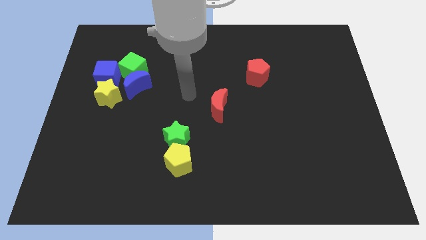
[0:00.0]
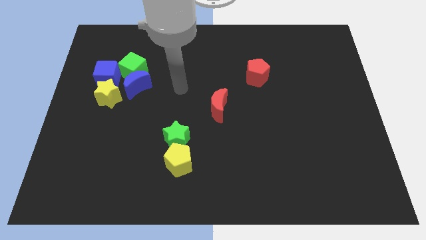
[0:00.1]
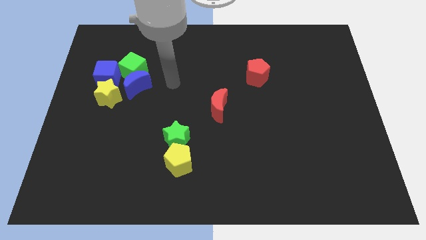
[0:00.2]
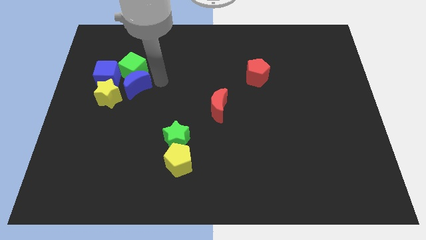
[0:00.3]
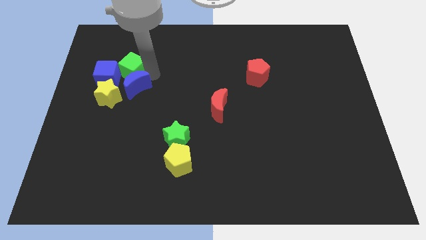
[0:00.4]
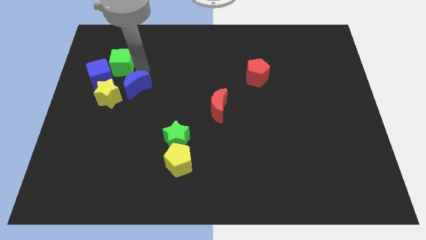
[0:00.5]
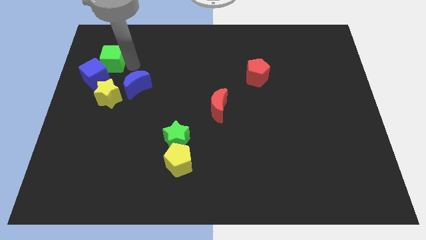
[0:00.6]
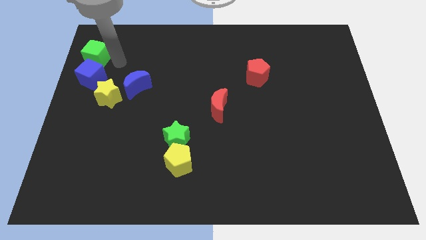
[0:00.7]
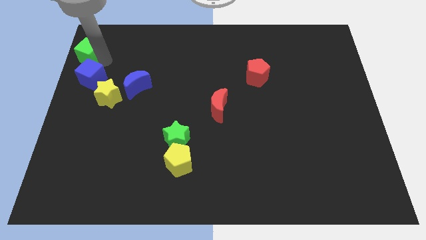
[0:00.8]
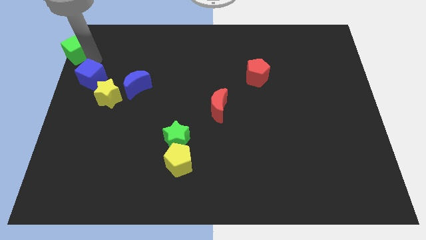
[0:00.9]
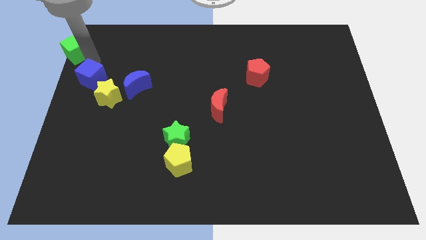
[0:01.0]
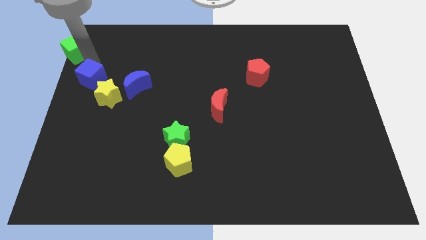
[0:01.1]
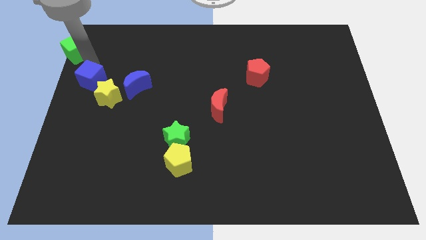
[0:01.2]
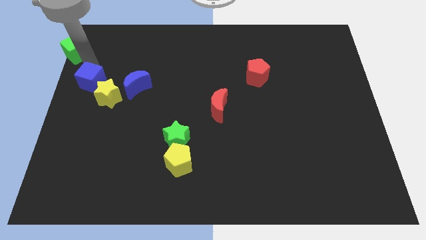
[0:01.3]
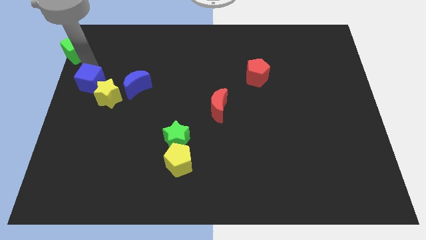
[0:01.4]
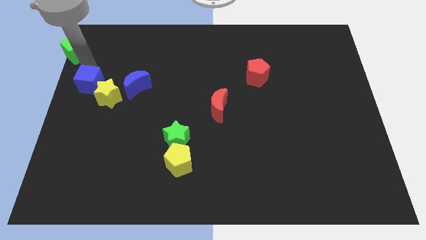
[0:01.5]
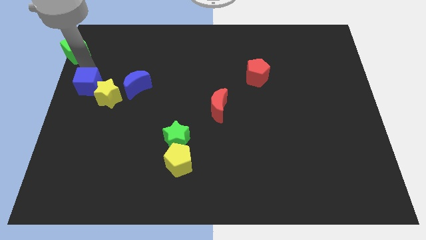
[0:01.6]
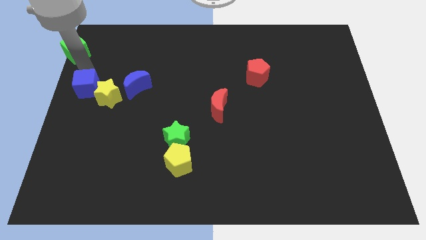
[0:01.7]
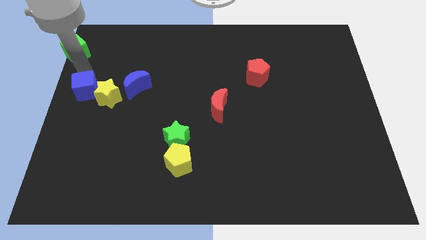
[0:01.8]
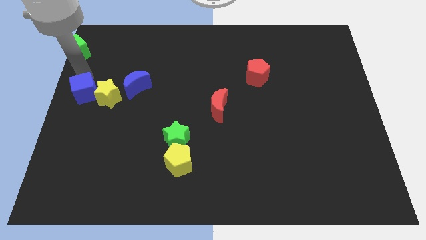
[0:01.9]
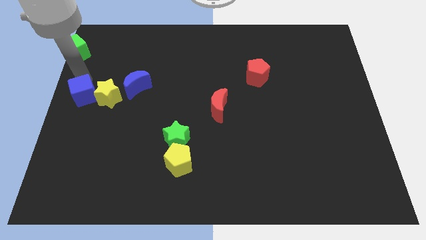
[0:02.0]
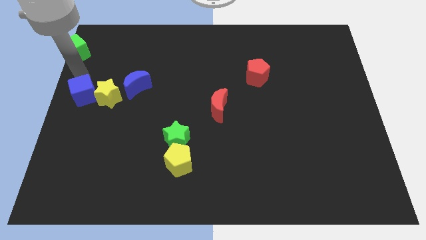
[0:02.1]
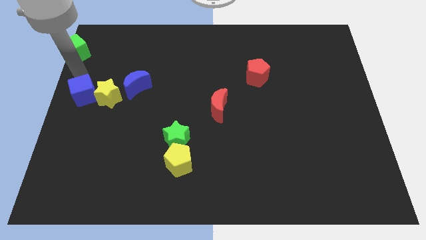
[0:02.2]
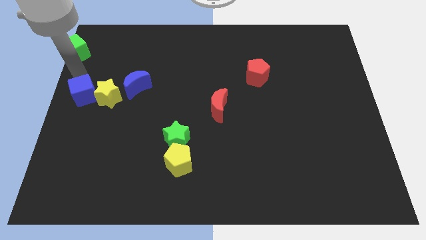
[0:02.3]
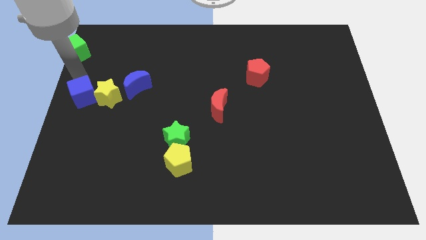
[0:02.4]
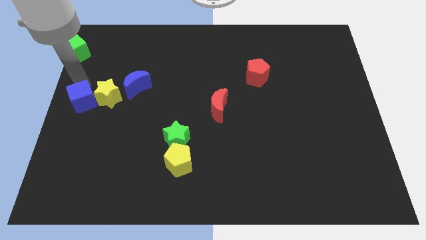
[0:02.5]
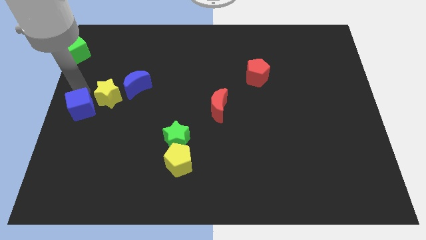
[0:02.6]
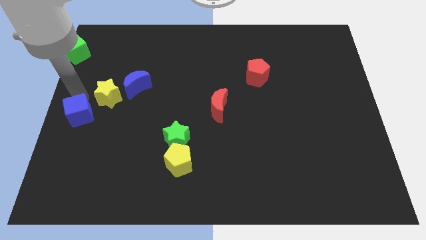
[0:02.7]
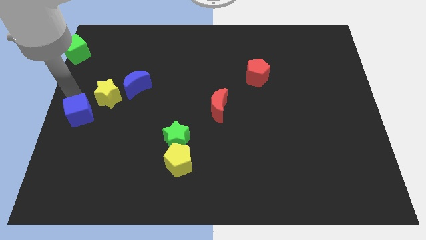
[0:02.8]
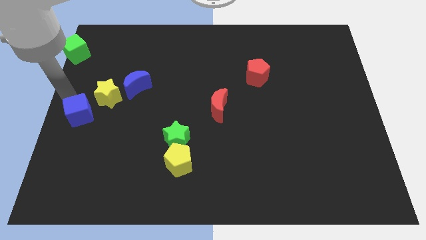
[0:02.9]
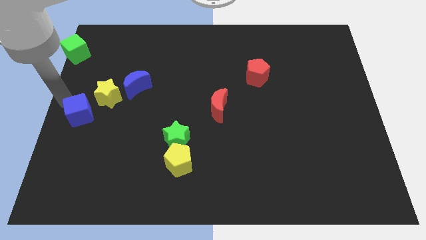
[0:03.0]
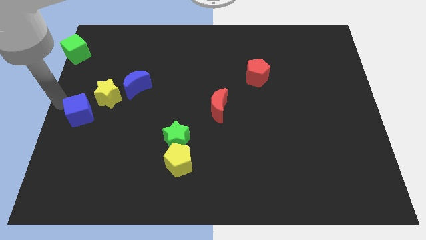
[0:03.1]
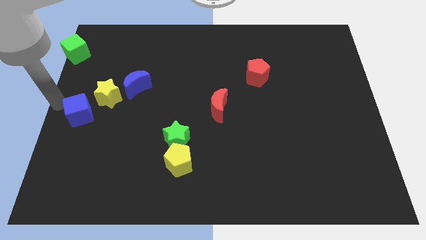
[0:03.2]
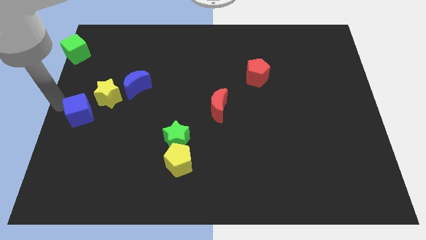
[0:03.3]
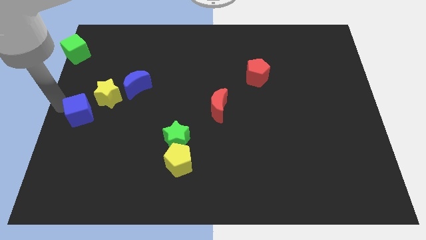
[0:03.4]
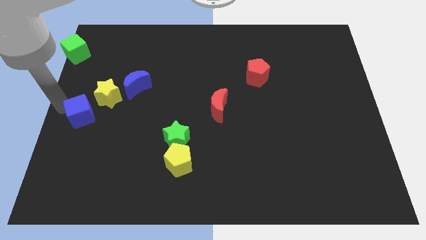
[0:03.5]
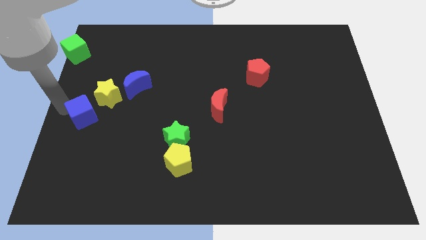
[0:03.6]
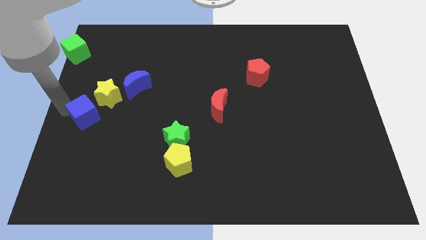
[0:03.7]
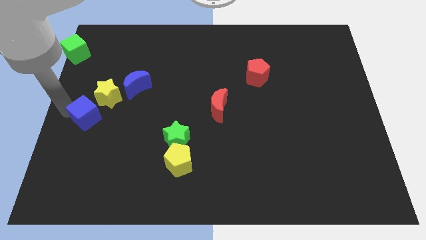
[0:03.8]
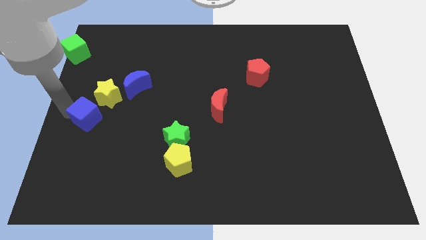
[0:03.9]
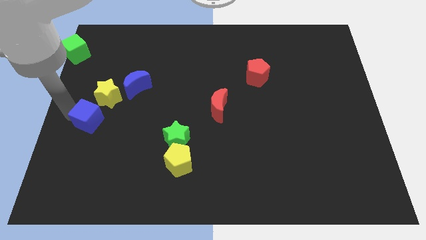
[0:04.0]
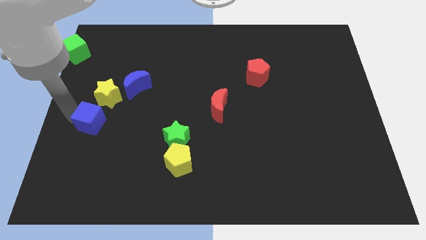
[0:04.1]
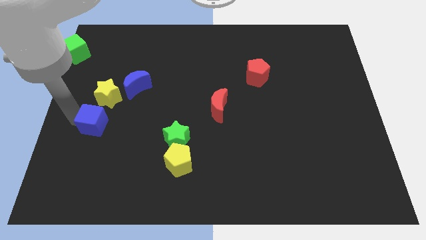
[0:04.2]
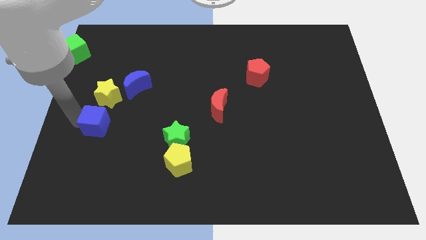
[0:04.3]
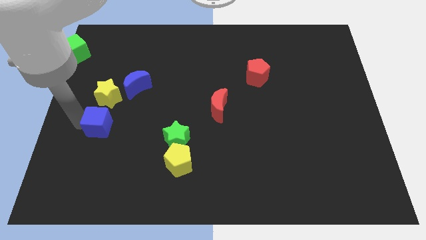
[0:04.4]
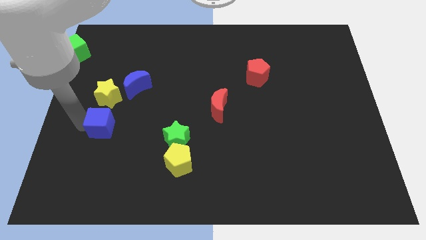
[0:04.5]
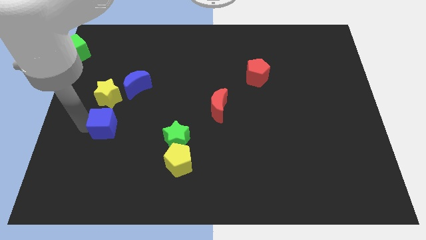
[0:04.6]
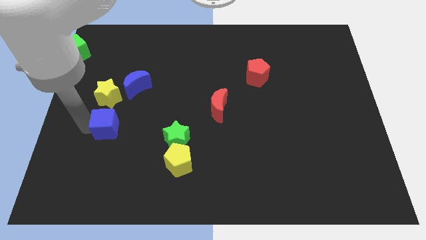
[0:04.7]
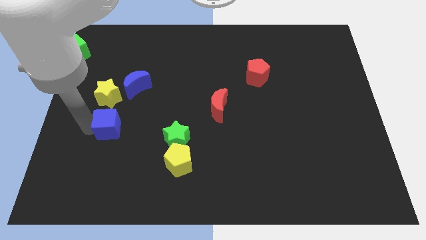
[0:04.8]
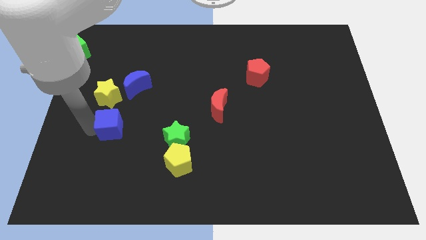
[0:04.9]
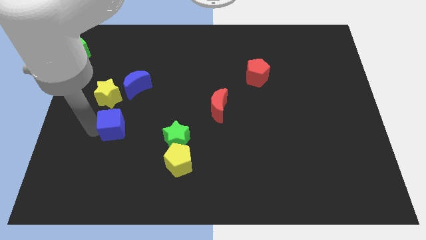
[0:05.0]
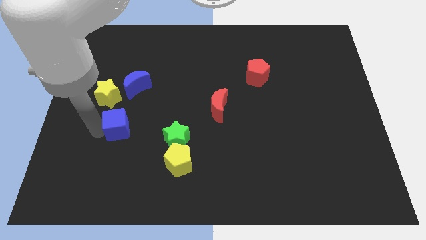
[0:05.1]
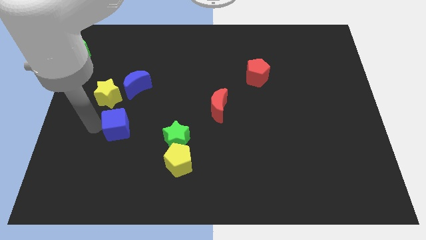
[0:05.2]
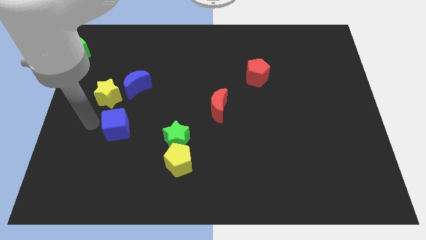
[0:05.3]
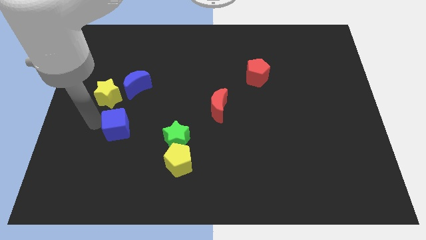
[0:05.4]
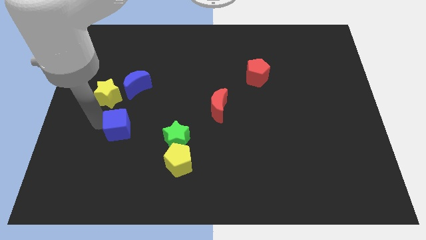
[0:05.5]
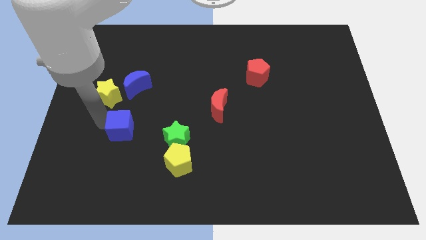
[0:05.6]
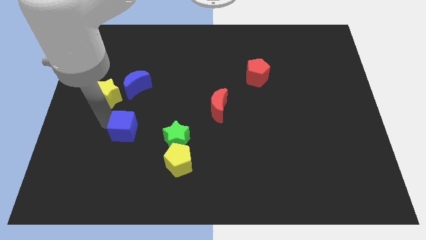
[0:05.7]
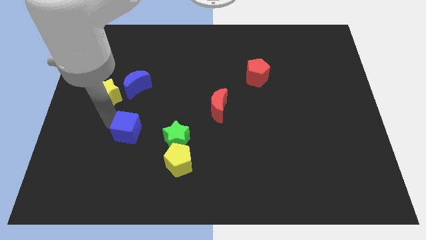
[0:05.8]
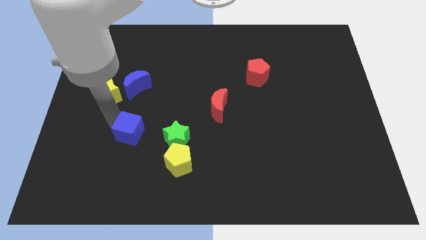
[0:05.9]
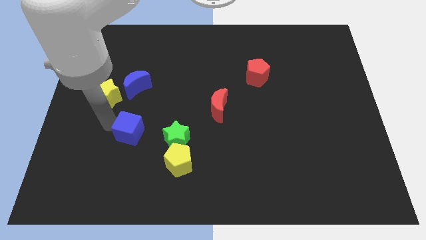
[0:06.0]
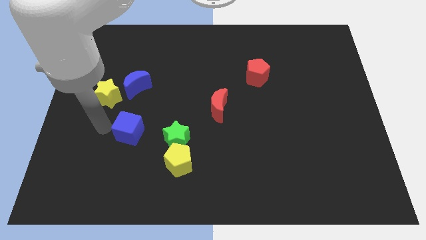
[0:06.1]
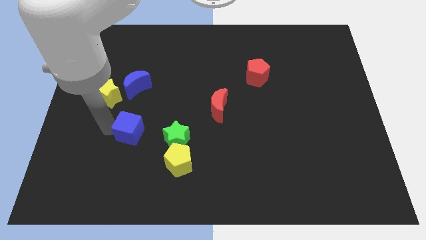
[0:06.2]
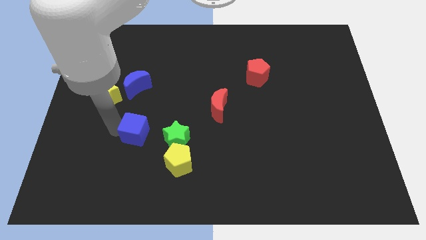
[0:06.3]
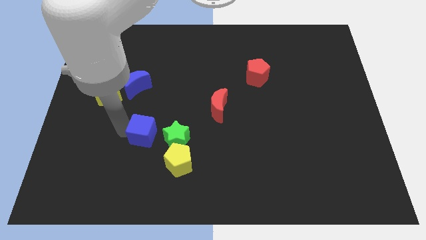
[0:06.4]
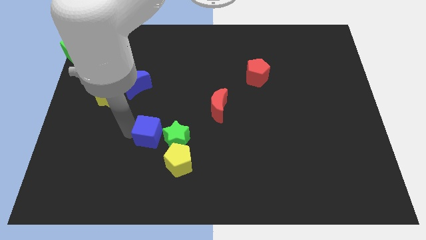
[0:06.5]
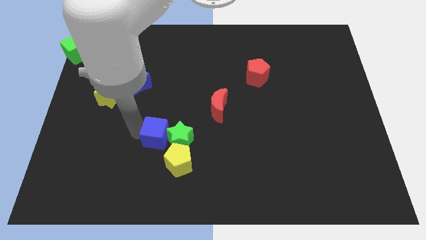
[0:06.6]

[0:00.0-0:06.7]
move the blue cube close to the green star

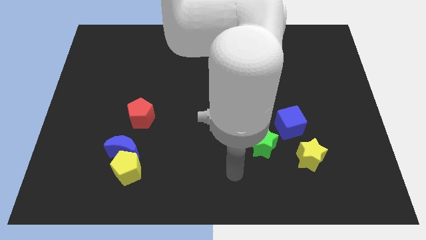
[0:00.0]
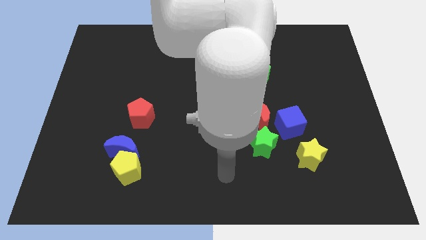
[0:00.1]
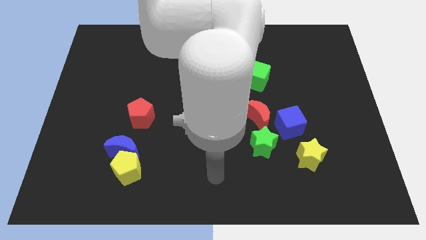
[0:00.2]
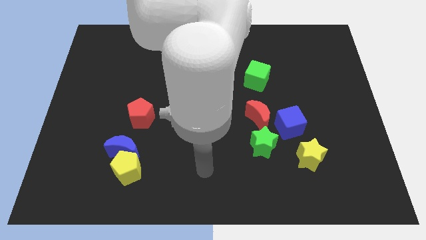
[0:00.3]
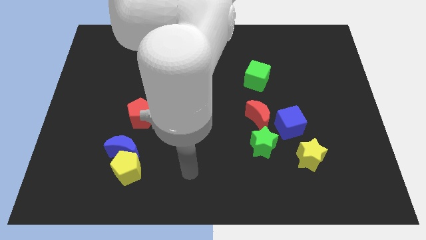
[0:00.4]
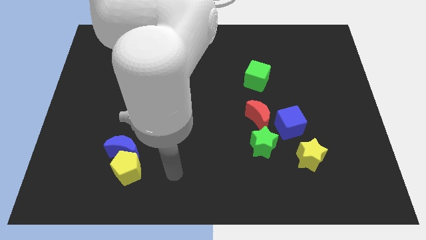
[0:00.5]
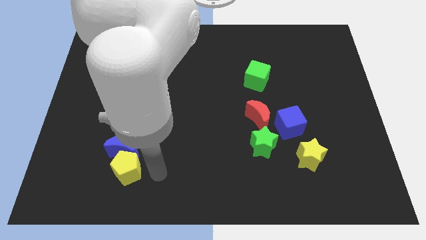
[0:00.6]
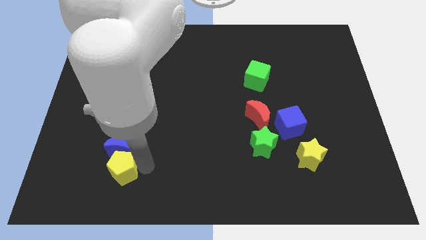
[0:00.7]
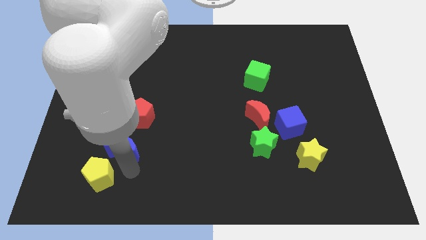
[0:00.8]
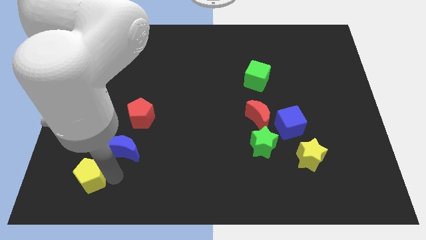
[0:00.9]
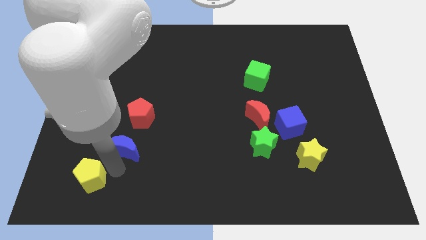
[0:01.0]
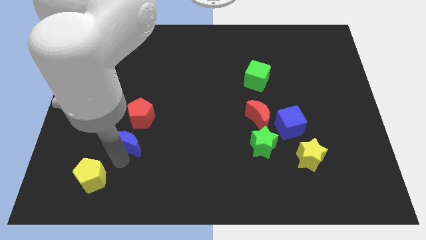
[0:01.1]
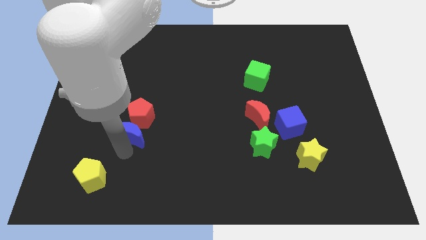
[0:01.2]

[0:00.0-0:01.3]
put the blue moon towards the red pentagon
